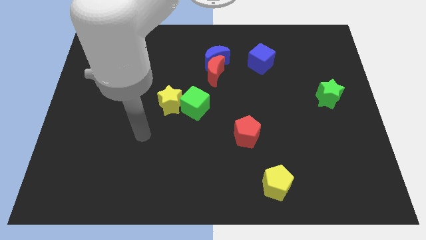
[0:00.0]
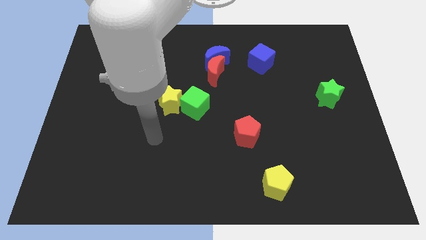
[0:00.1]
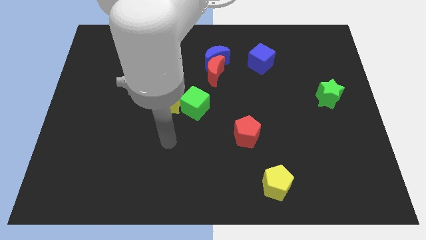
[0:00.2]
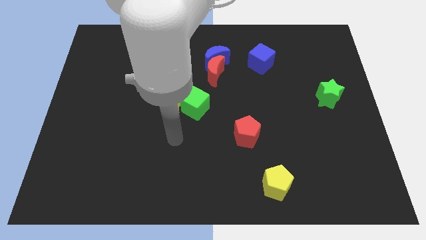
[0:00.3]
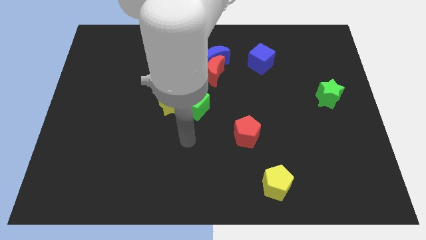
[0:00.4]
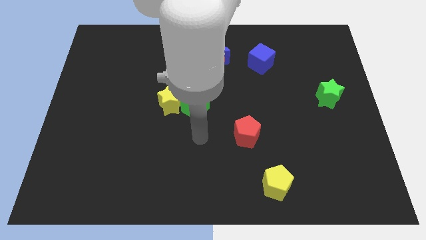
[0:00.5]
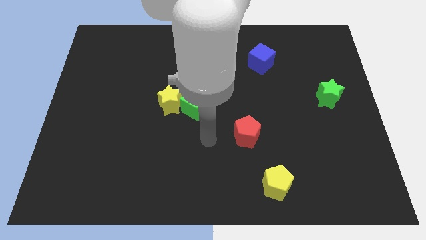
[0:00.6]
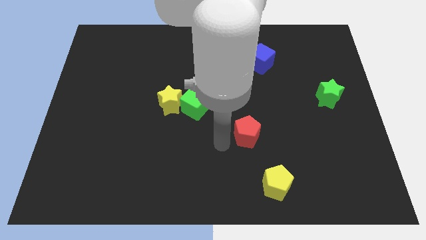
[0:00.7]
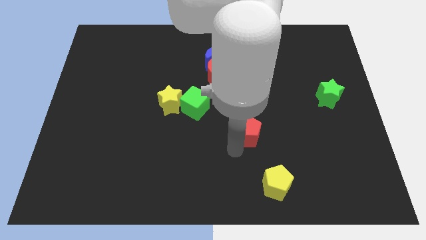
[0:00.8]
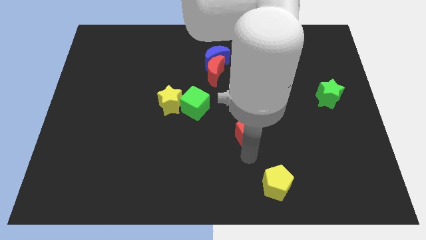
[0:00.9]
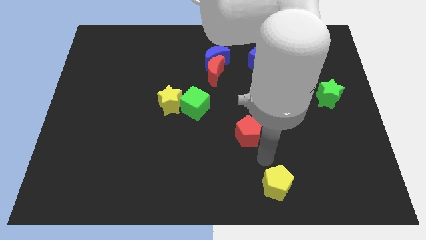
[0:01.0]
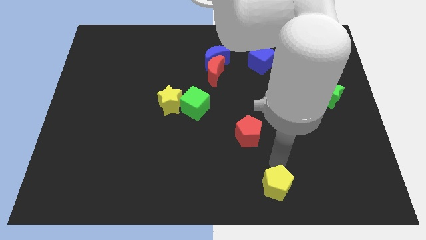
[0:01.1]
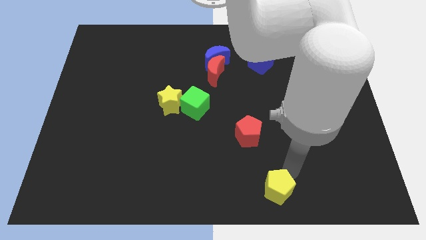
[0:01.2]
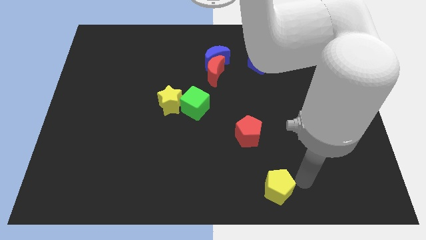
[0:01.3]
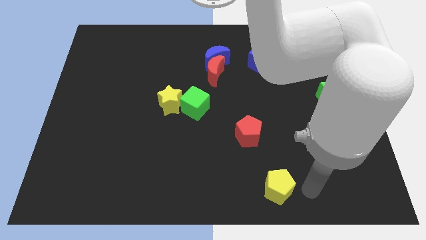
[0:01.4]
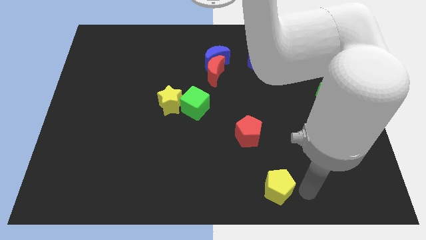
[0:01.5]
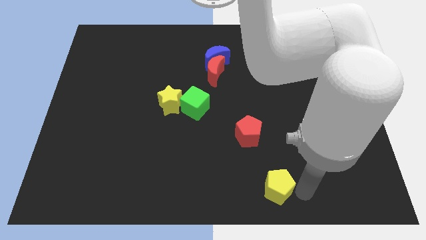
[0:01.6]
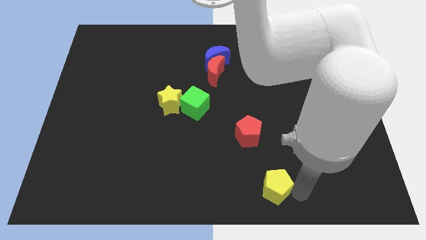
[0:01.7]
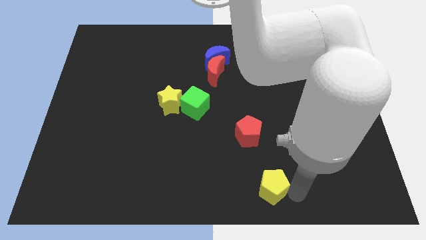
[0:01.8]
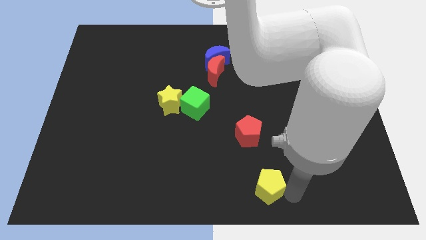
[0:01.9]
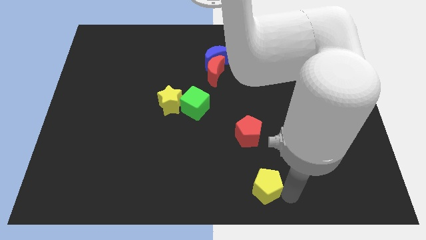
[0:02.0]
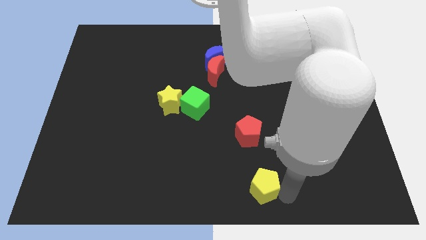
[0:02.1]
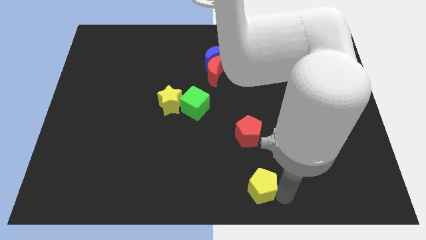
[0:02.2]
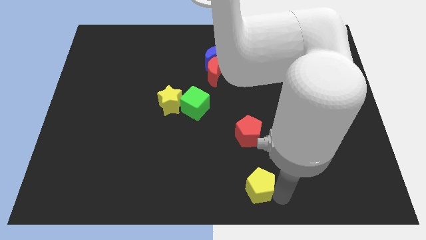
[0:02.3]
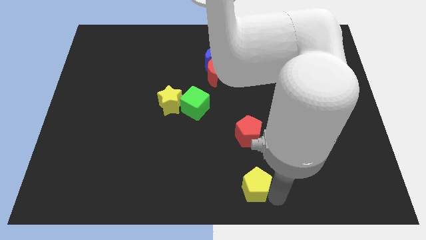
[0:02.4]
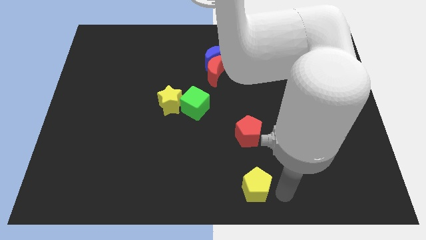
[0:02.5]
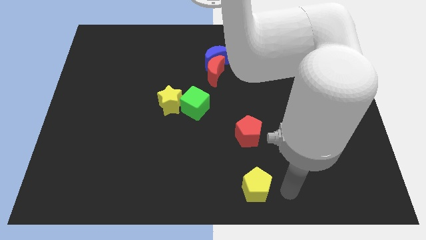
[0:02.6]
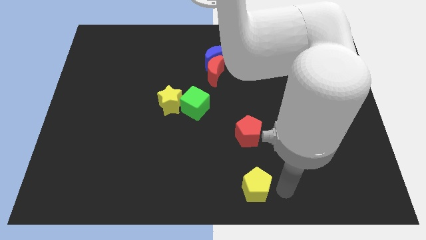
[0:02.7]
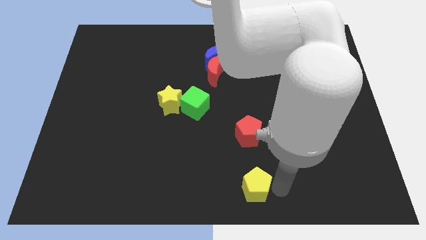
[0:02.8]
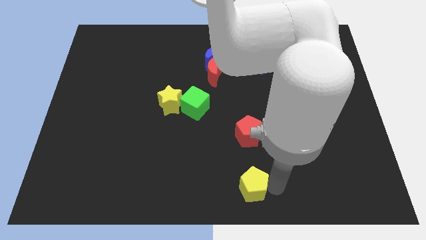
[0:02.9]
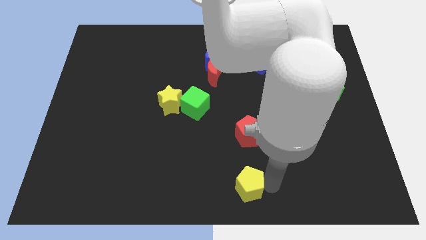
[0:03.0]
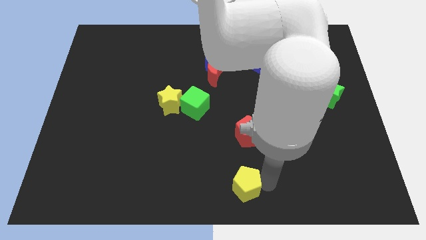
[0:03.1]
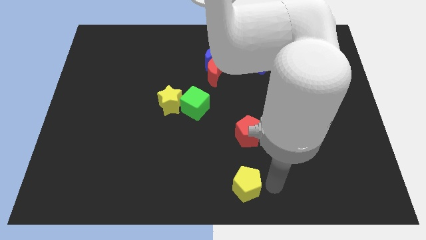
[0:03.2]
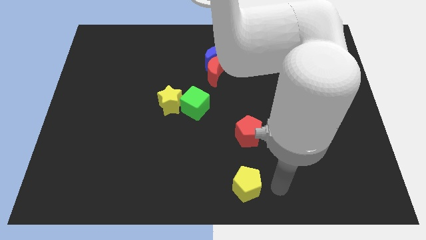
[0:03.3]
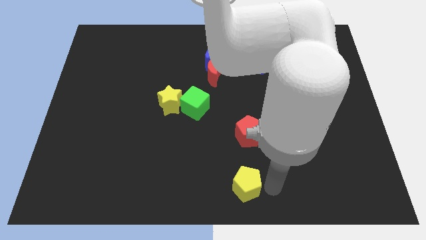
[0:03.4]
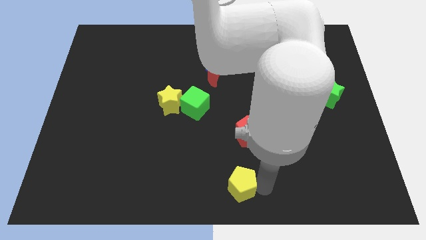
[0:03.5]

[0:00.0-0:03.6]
move the yellow pentagon left somewhat

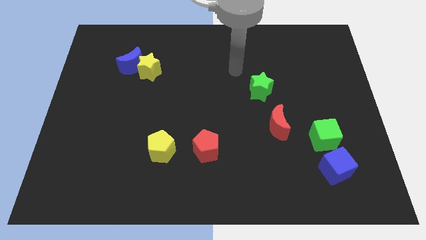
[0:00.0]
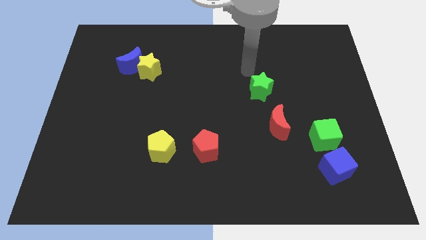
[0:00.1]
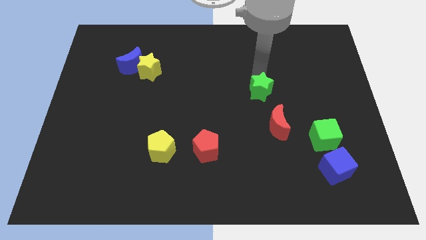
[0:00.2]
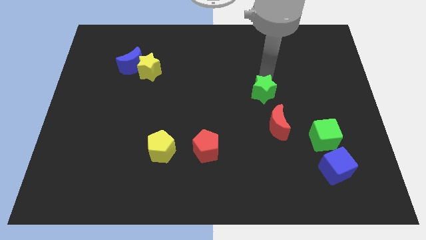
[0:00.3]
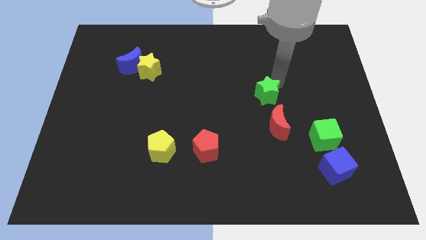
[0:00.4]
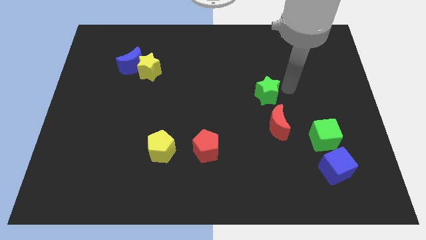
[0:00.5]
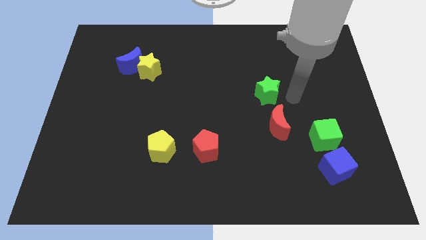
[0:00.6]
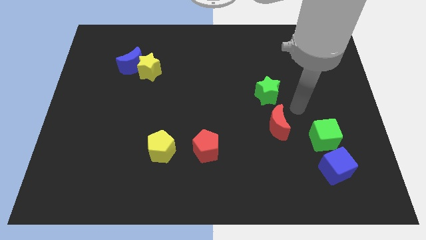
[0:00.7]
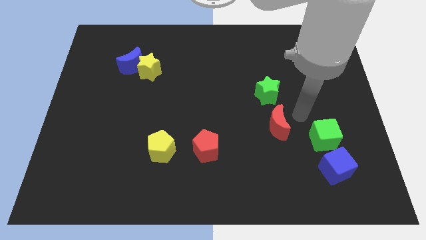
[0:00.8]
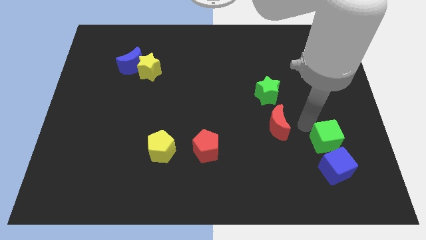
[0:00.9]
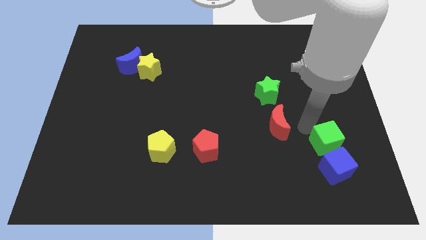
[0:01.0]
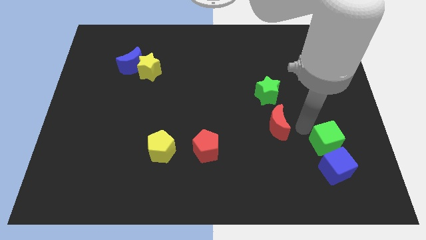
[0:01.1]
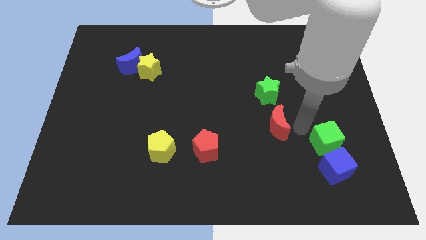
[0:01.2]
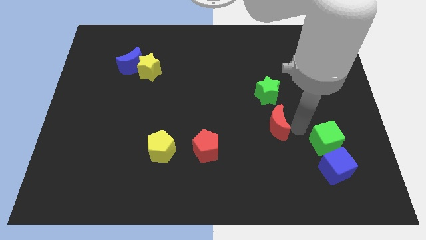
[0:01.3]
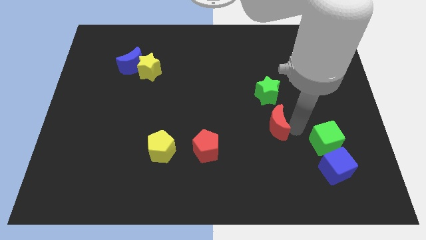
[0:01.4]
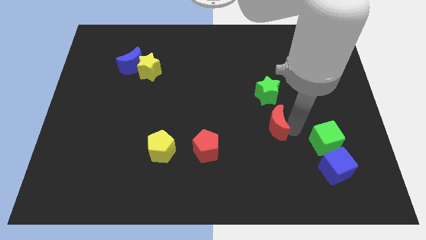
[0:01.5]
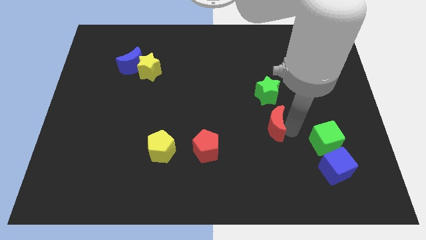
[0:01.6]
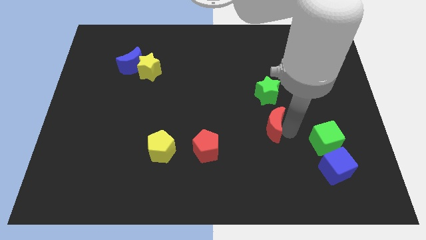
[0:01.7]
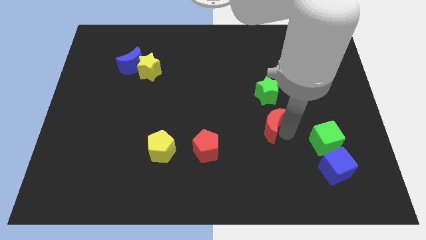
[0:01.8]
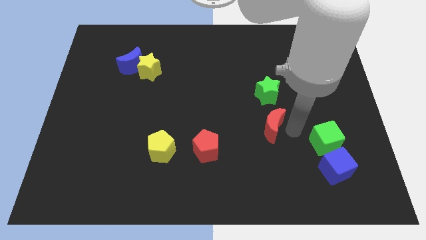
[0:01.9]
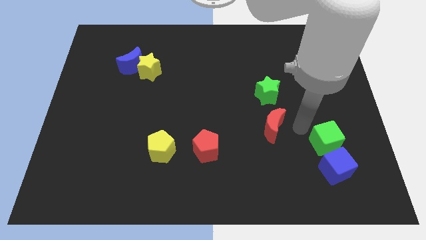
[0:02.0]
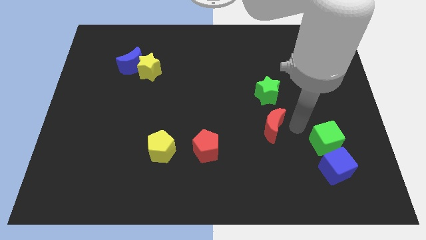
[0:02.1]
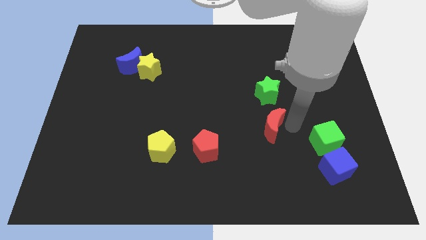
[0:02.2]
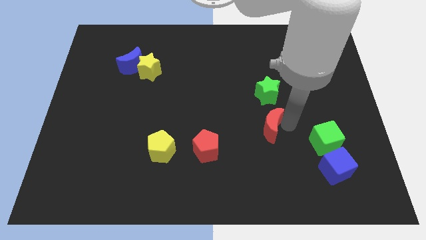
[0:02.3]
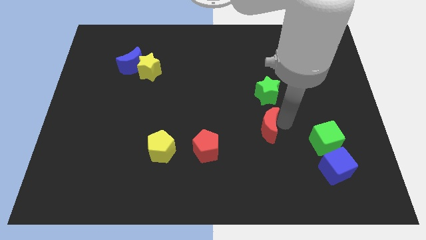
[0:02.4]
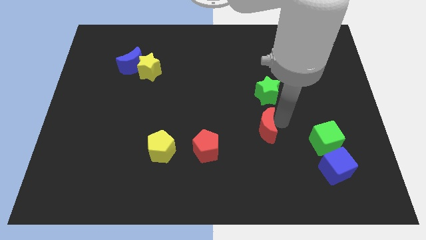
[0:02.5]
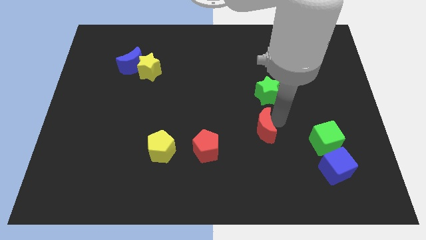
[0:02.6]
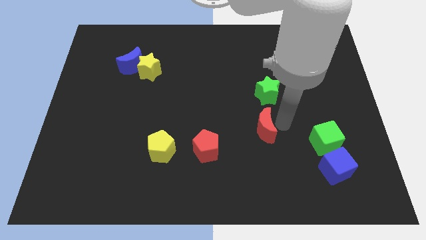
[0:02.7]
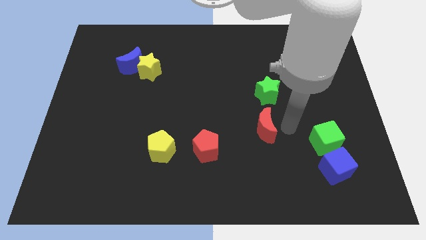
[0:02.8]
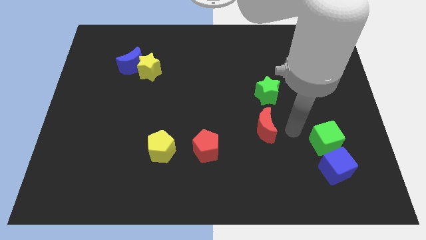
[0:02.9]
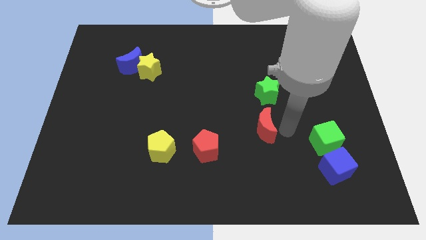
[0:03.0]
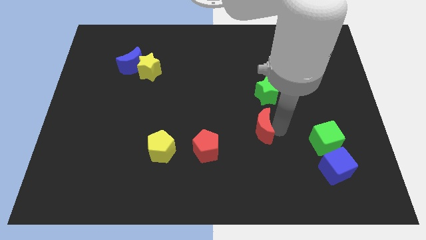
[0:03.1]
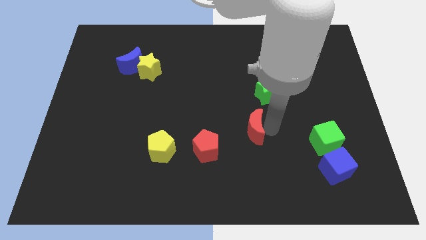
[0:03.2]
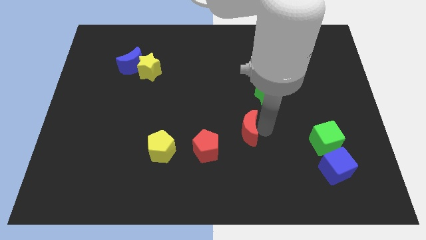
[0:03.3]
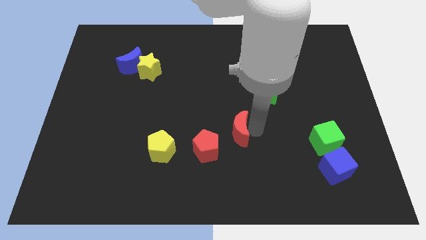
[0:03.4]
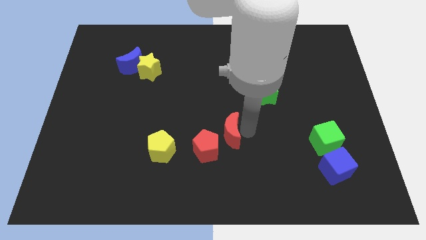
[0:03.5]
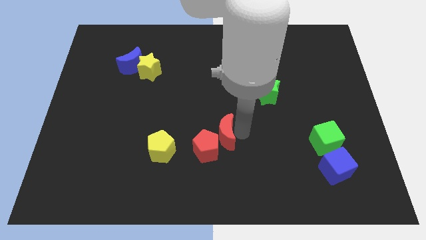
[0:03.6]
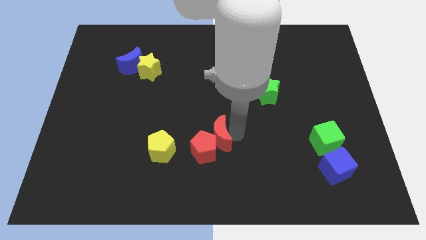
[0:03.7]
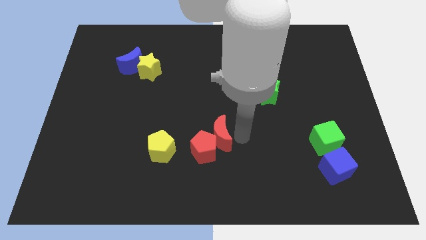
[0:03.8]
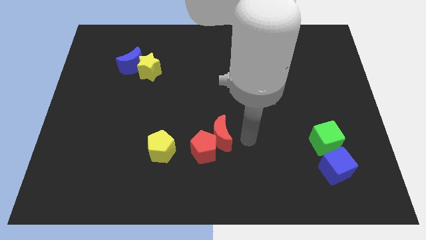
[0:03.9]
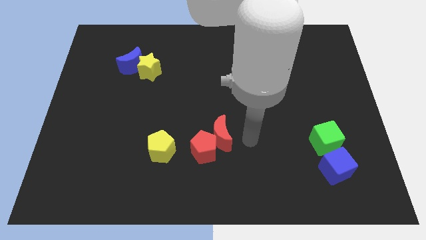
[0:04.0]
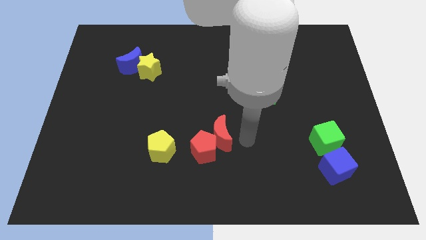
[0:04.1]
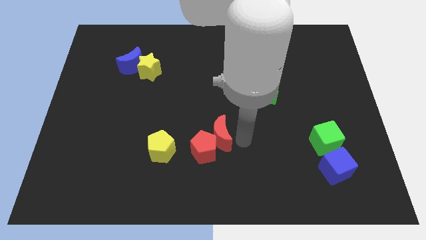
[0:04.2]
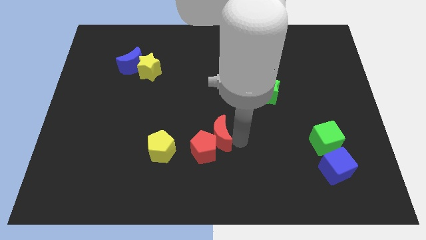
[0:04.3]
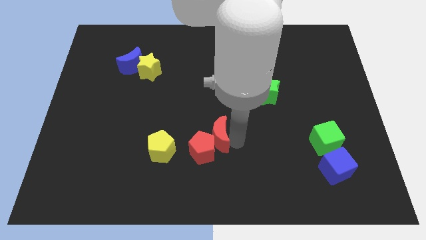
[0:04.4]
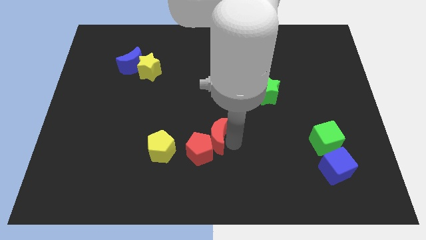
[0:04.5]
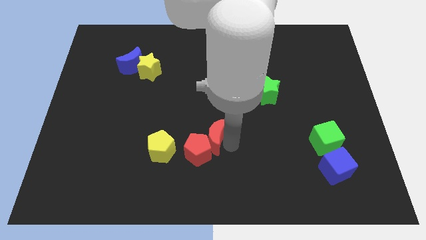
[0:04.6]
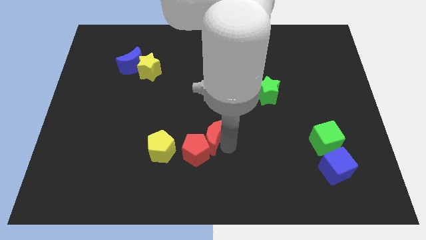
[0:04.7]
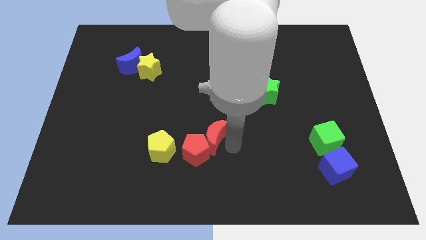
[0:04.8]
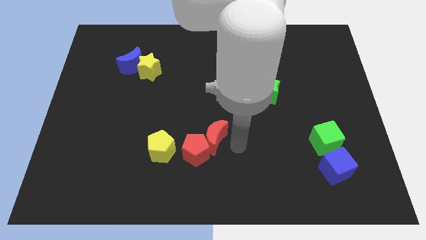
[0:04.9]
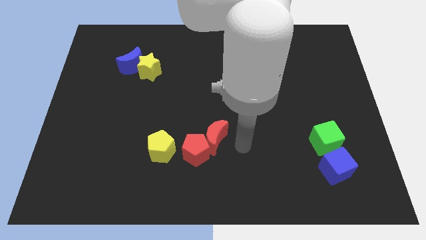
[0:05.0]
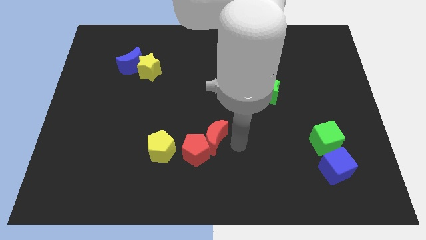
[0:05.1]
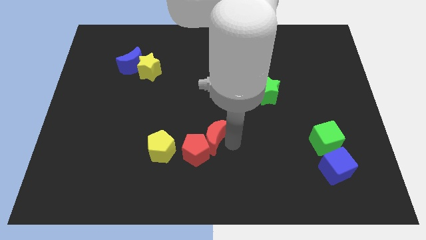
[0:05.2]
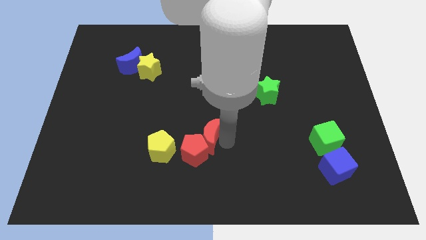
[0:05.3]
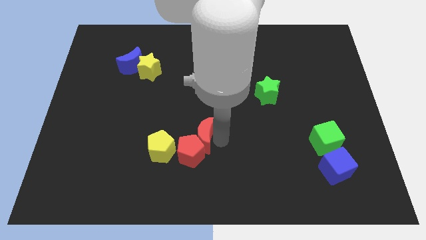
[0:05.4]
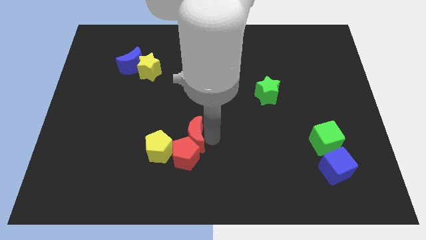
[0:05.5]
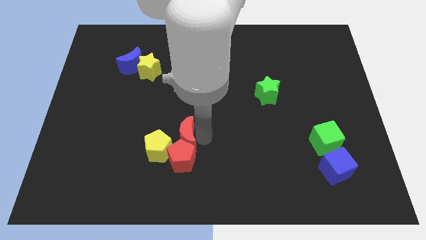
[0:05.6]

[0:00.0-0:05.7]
move the red moon to the left
